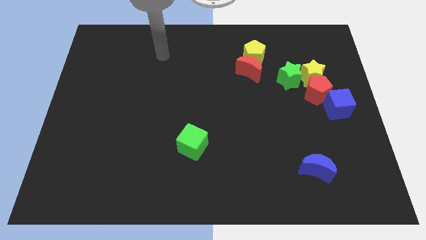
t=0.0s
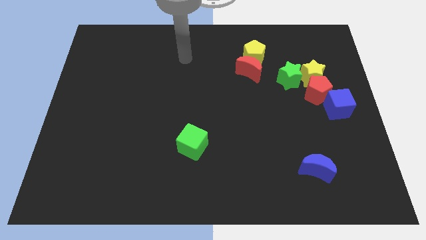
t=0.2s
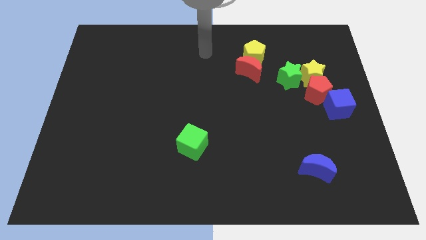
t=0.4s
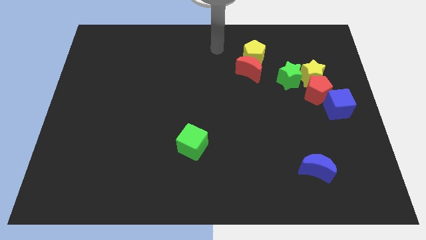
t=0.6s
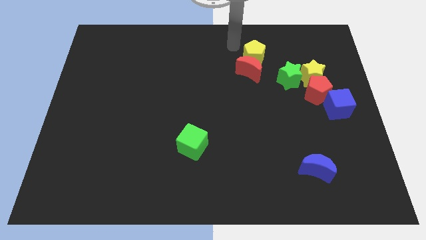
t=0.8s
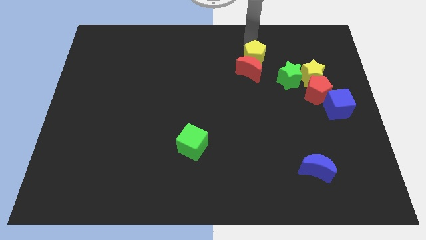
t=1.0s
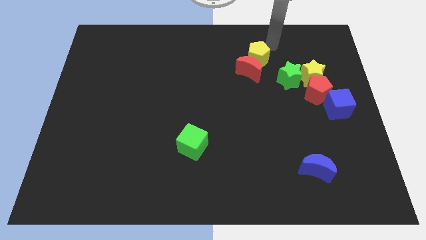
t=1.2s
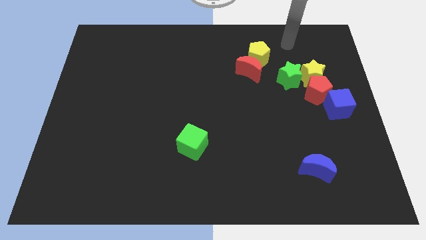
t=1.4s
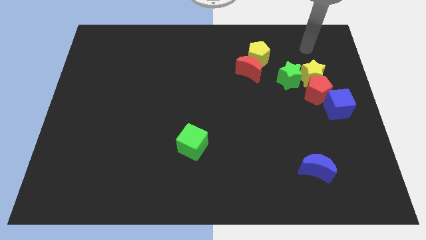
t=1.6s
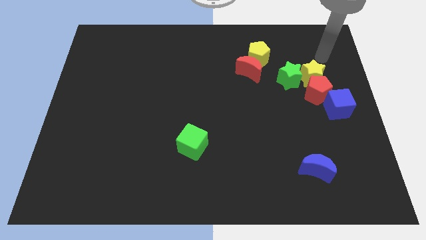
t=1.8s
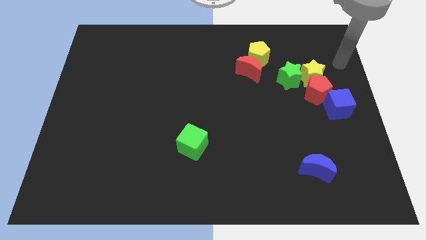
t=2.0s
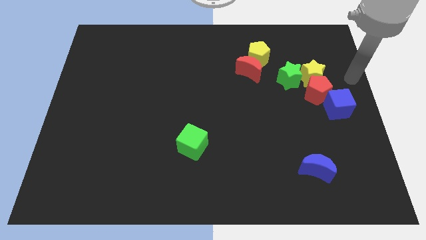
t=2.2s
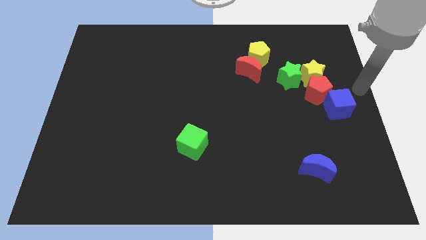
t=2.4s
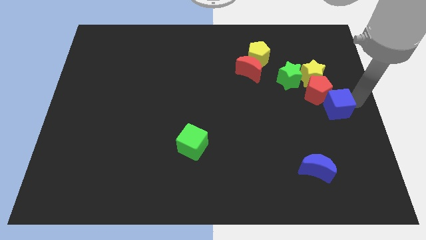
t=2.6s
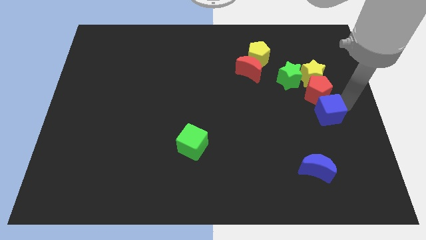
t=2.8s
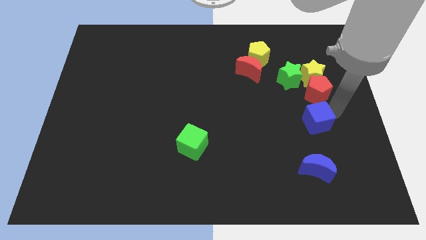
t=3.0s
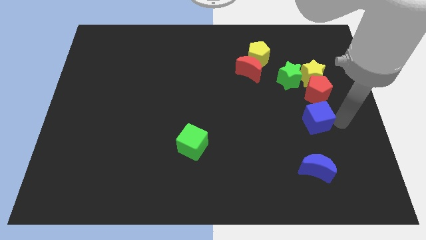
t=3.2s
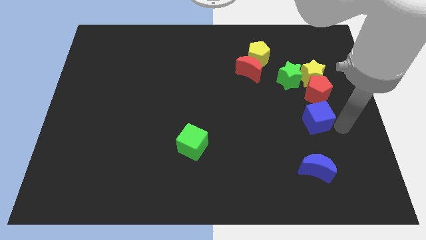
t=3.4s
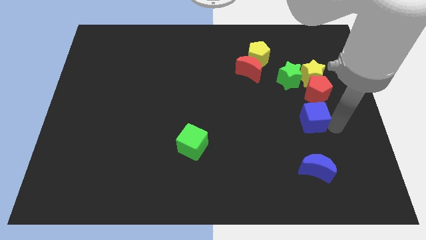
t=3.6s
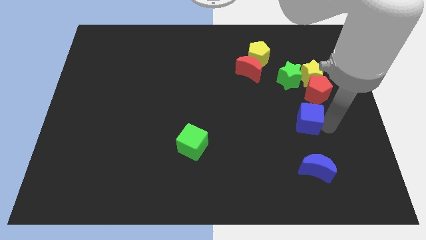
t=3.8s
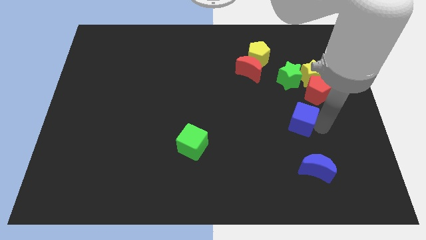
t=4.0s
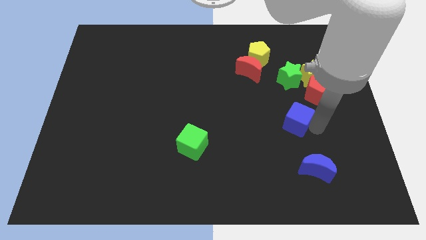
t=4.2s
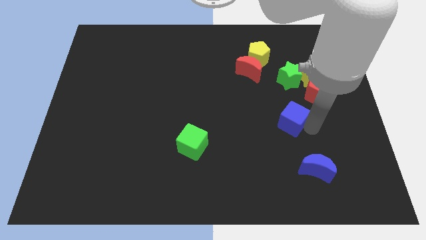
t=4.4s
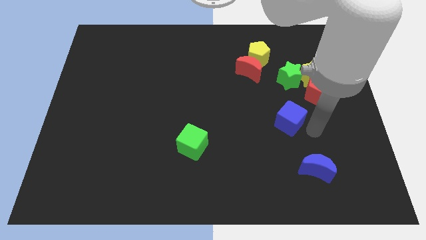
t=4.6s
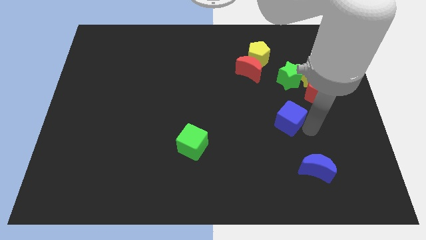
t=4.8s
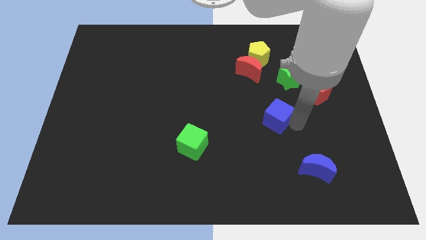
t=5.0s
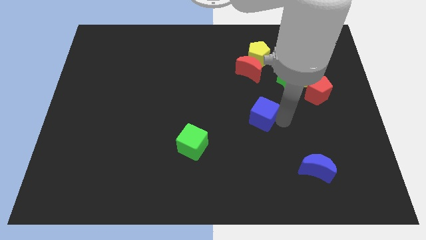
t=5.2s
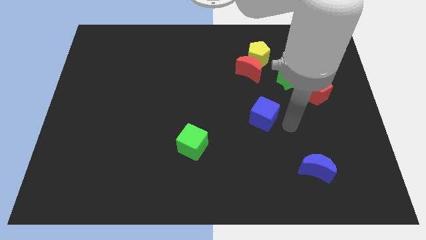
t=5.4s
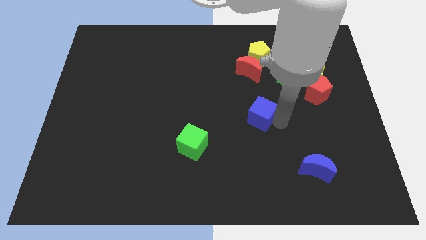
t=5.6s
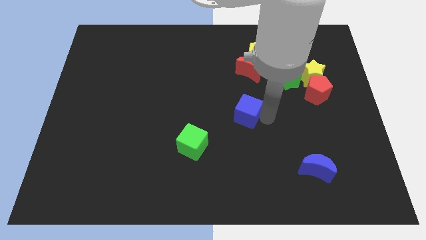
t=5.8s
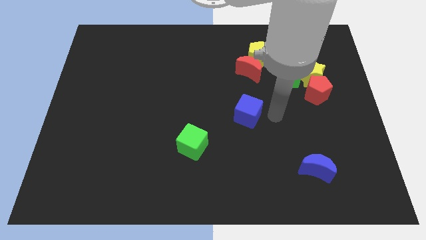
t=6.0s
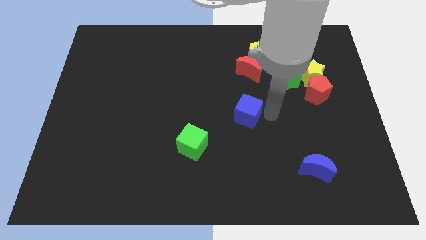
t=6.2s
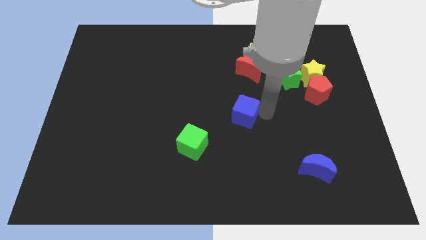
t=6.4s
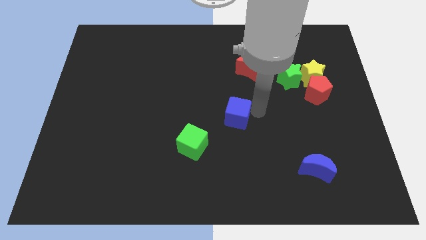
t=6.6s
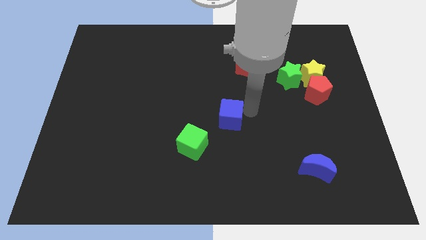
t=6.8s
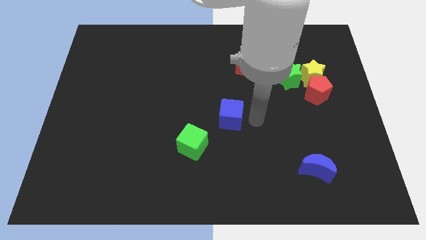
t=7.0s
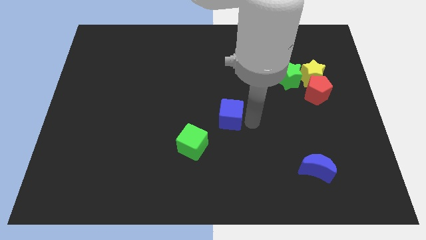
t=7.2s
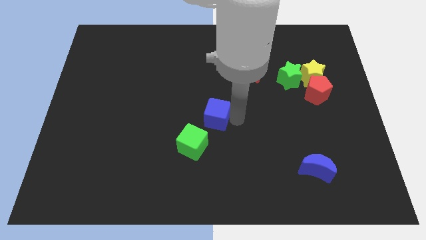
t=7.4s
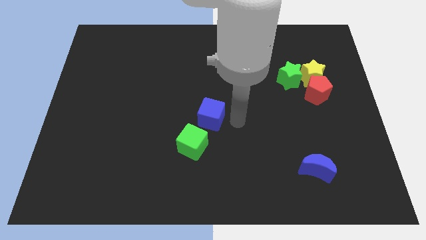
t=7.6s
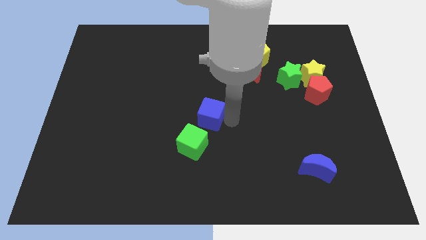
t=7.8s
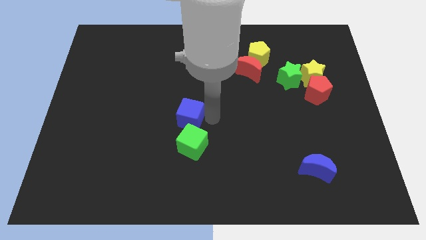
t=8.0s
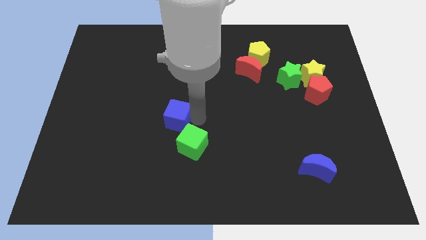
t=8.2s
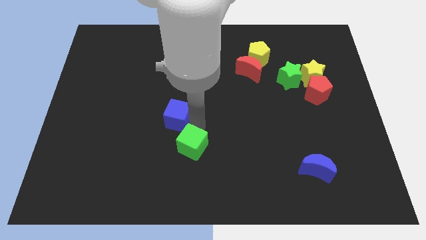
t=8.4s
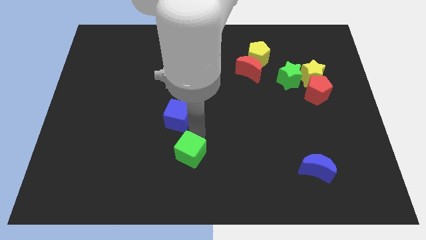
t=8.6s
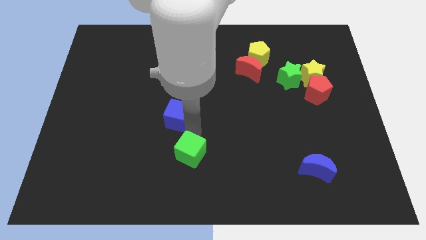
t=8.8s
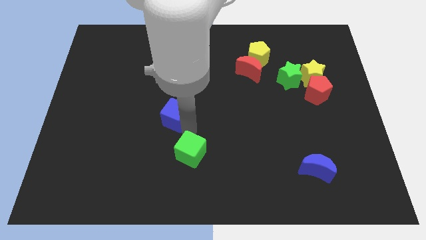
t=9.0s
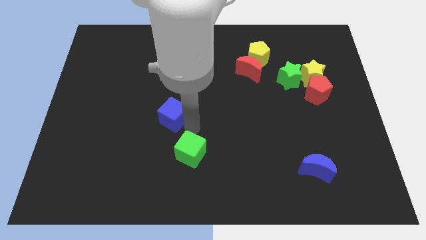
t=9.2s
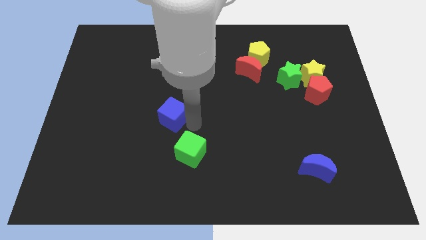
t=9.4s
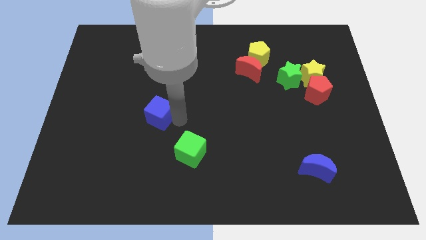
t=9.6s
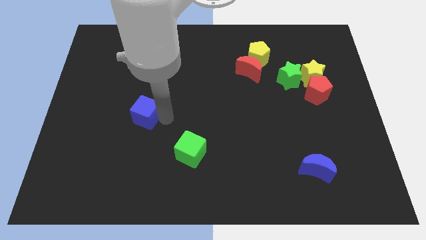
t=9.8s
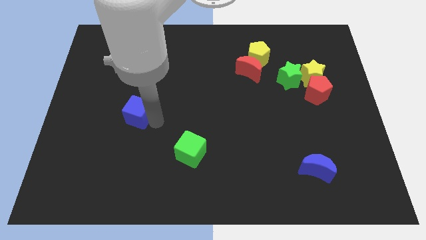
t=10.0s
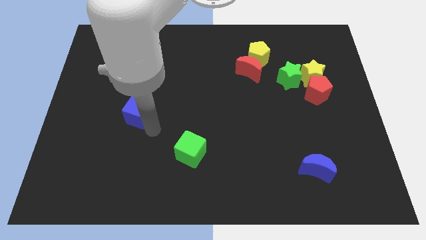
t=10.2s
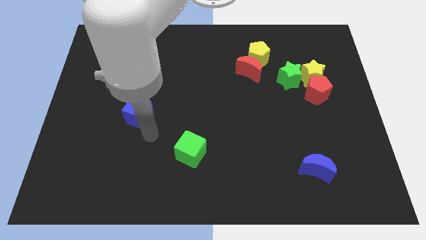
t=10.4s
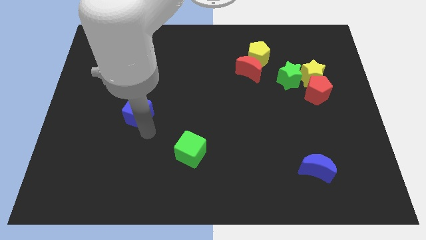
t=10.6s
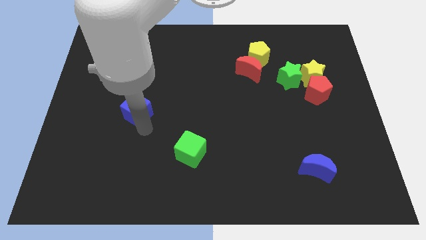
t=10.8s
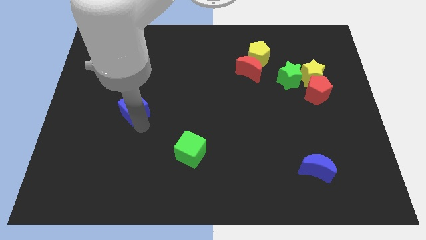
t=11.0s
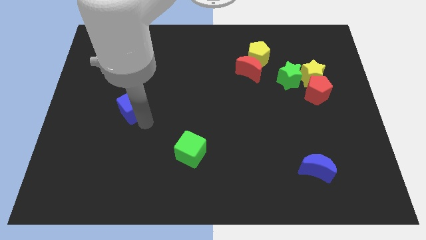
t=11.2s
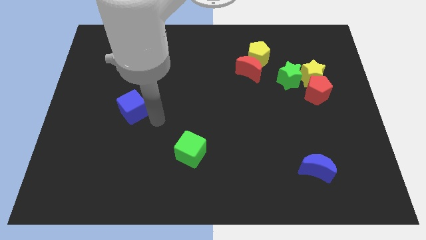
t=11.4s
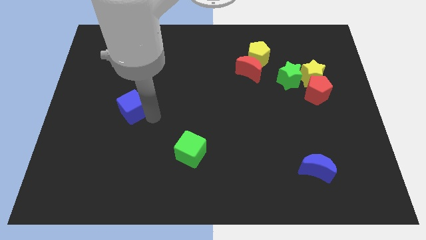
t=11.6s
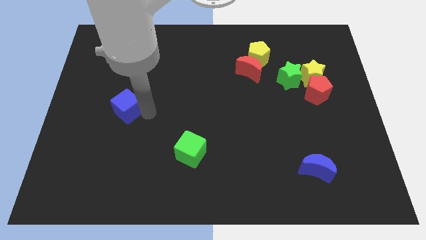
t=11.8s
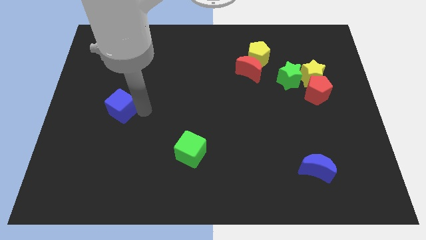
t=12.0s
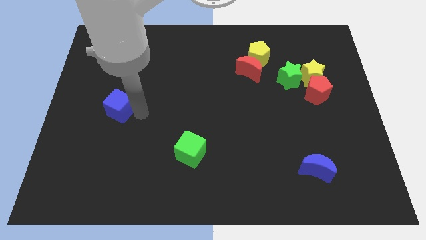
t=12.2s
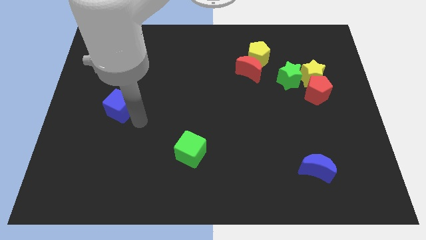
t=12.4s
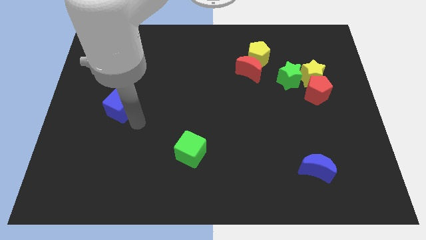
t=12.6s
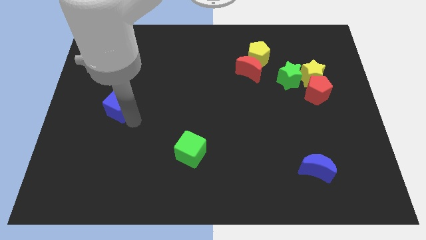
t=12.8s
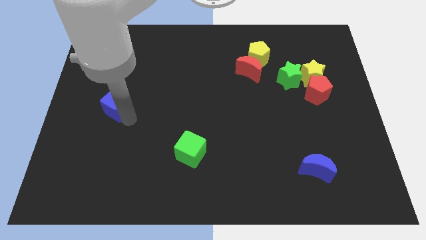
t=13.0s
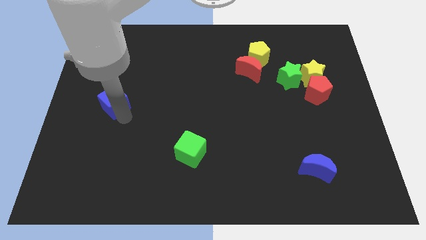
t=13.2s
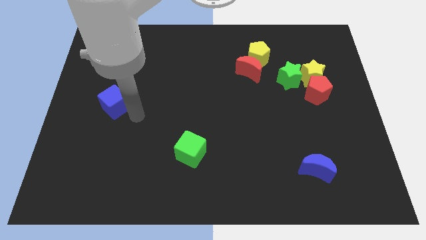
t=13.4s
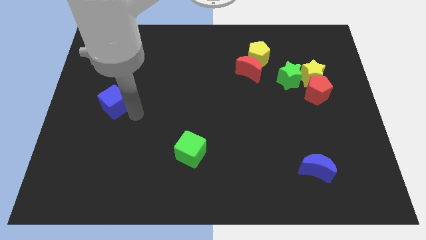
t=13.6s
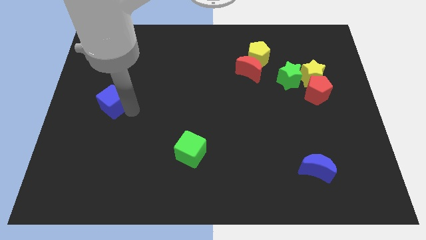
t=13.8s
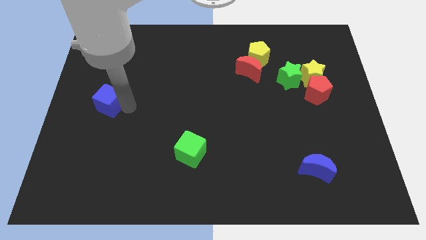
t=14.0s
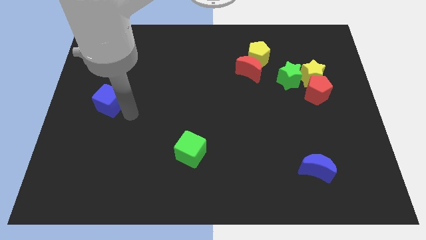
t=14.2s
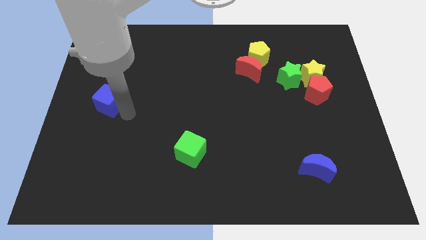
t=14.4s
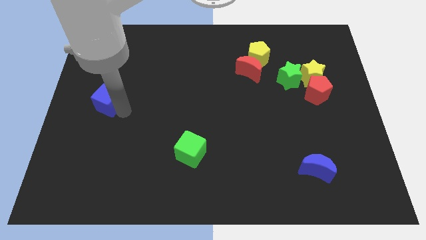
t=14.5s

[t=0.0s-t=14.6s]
push the blue cube to the center left
